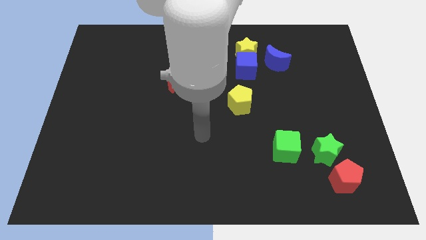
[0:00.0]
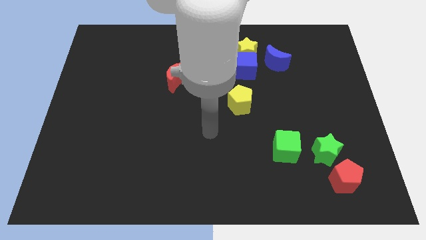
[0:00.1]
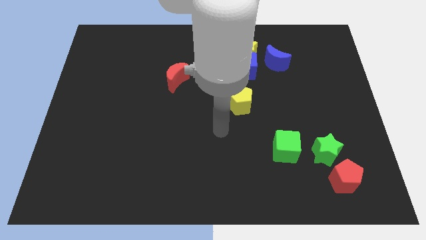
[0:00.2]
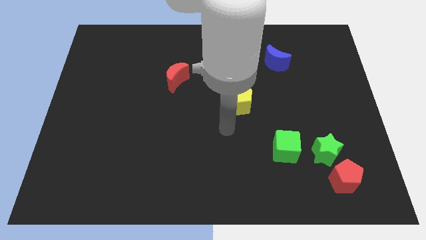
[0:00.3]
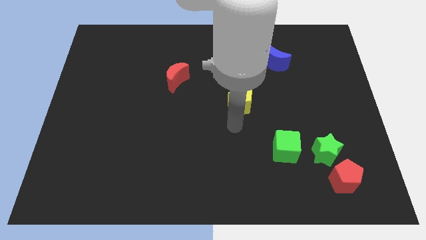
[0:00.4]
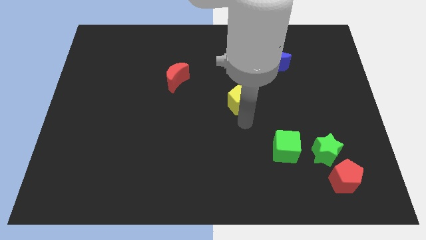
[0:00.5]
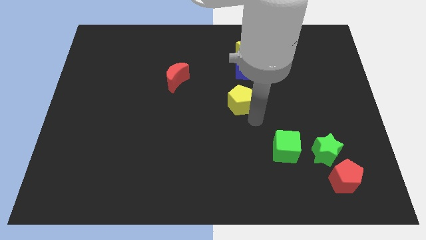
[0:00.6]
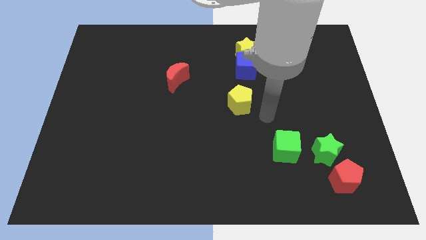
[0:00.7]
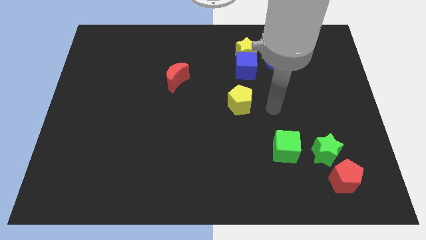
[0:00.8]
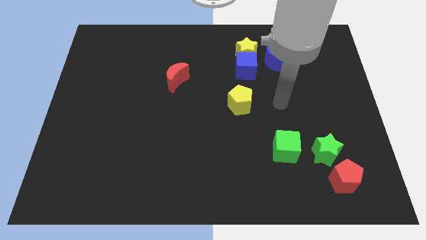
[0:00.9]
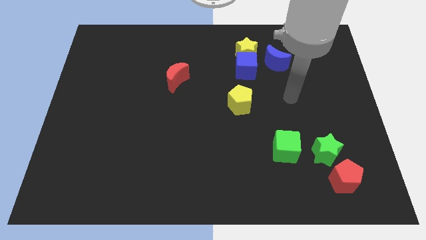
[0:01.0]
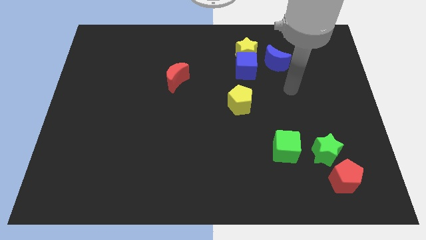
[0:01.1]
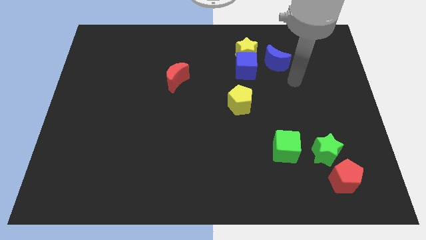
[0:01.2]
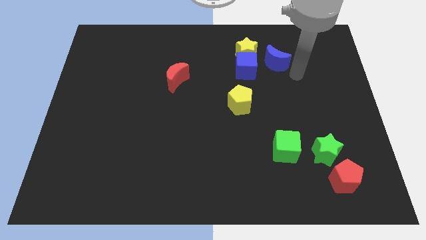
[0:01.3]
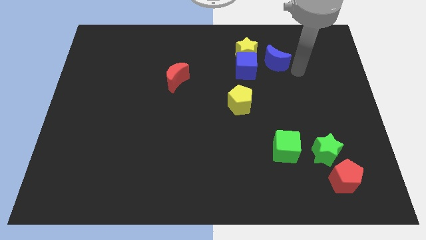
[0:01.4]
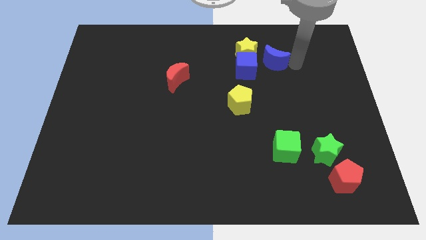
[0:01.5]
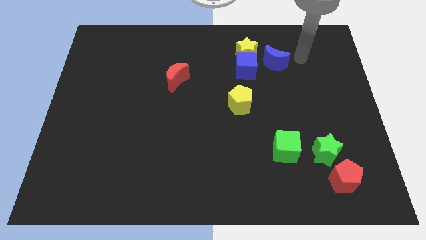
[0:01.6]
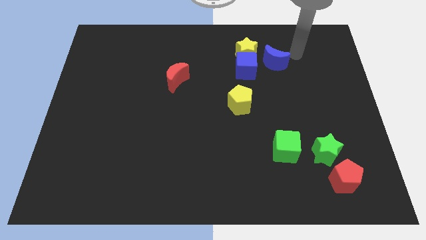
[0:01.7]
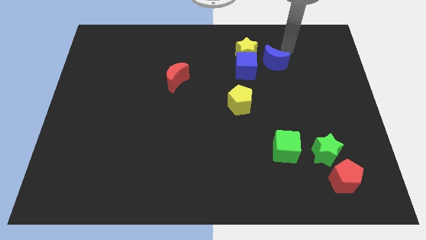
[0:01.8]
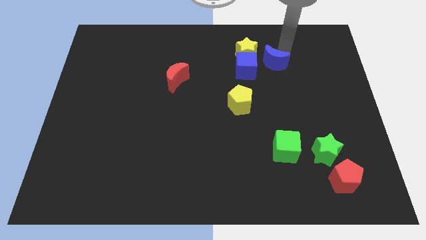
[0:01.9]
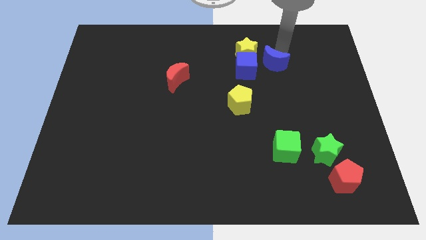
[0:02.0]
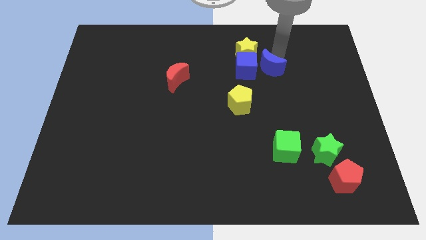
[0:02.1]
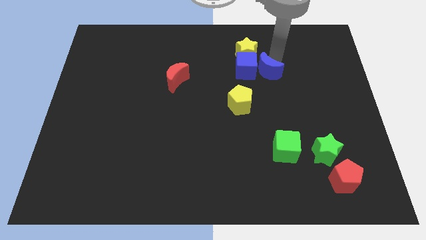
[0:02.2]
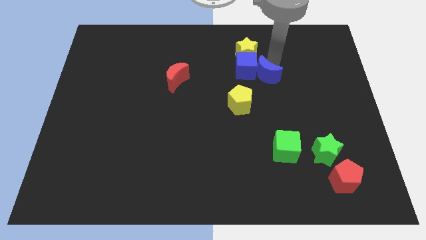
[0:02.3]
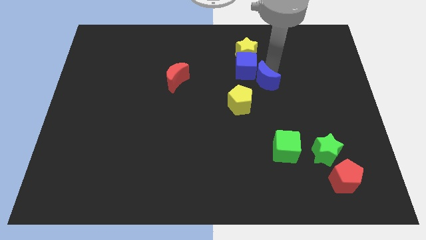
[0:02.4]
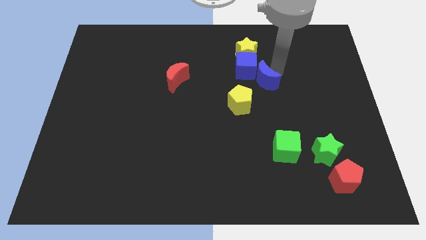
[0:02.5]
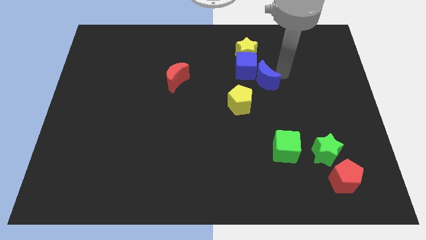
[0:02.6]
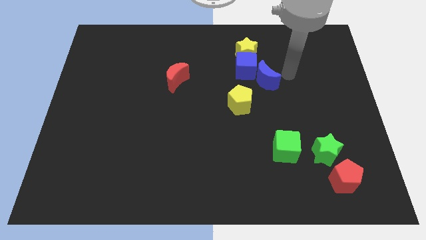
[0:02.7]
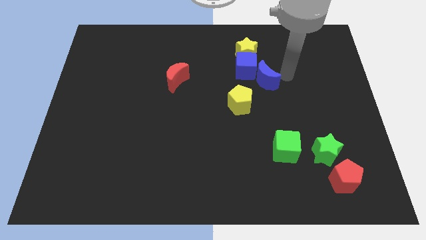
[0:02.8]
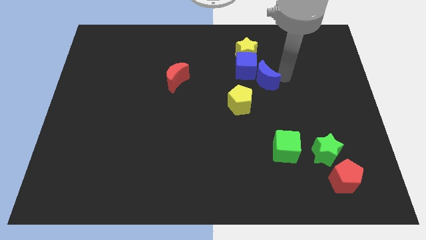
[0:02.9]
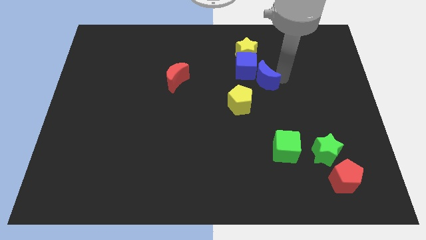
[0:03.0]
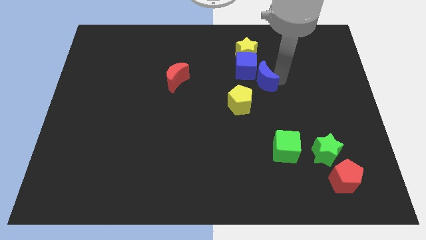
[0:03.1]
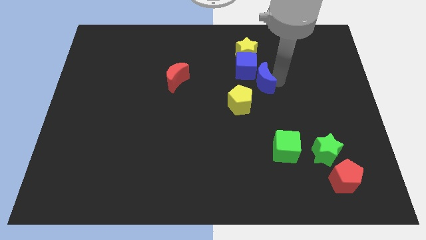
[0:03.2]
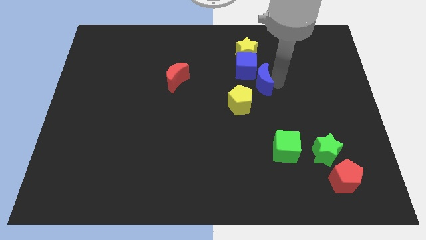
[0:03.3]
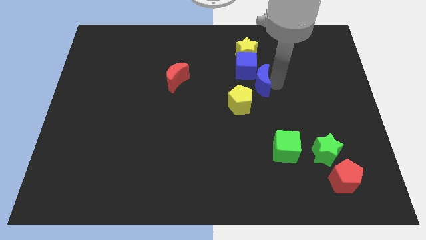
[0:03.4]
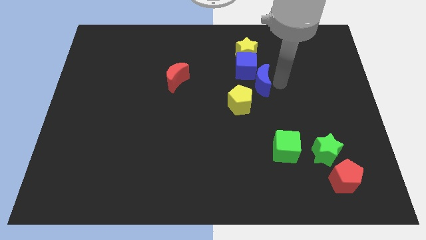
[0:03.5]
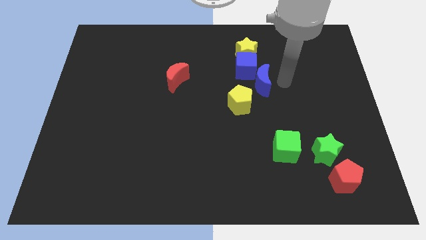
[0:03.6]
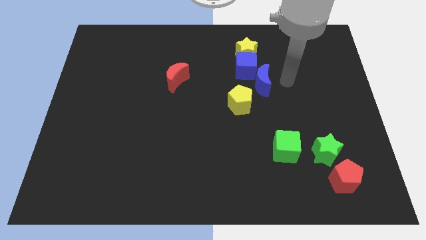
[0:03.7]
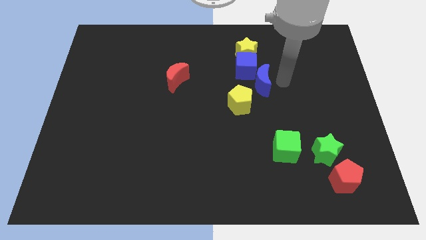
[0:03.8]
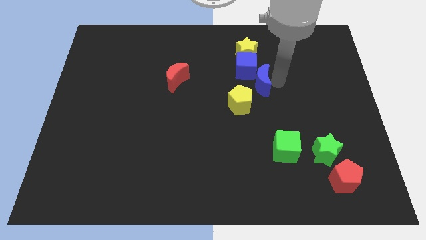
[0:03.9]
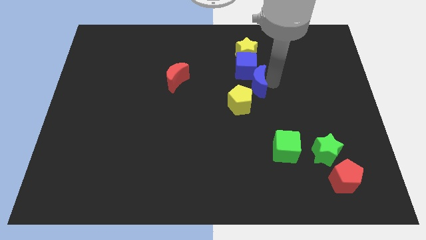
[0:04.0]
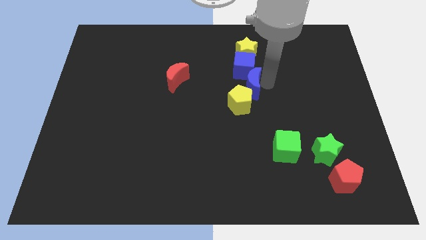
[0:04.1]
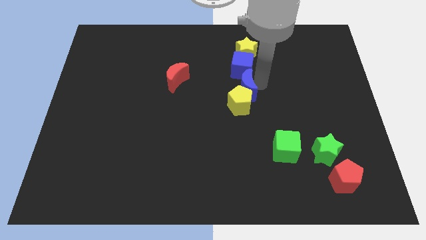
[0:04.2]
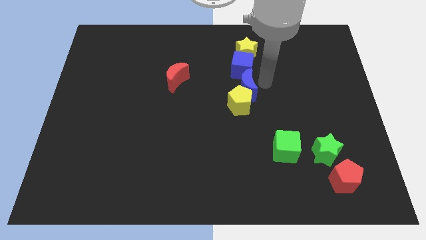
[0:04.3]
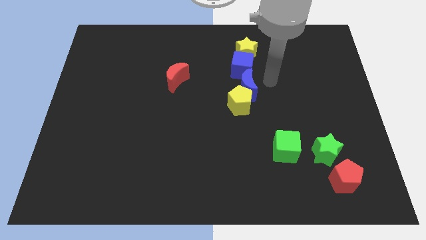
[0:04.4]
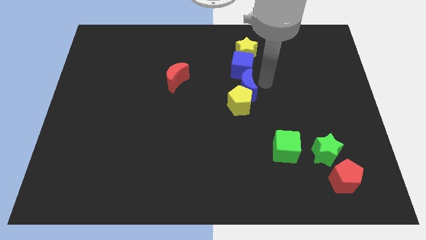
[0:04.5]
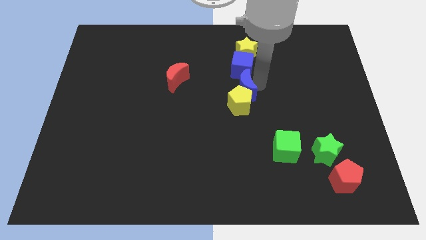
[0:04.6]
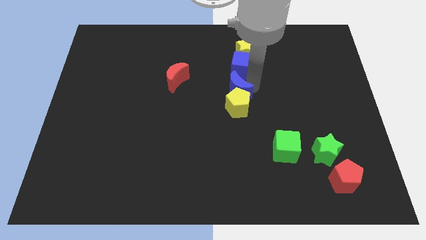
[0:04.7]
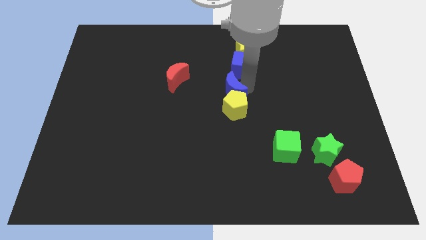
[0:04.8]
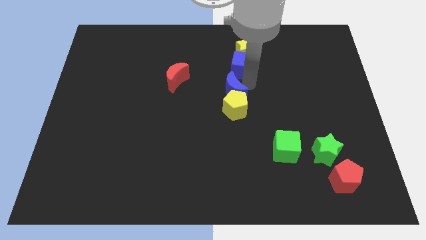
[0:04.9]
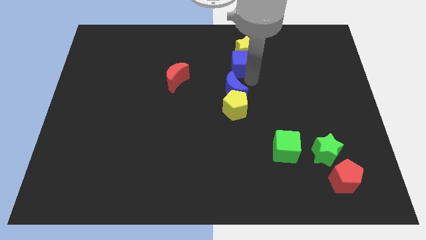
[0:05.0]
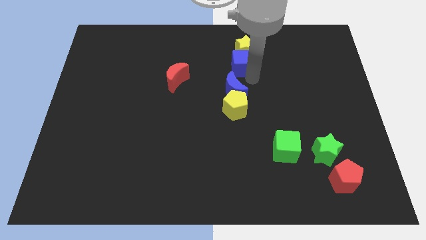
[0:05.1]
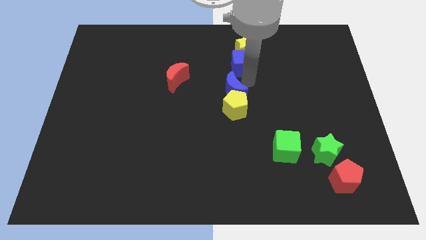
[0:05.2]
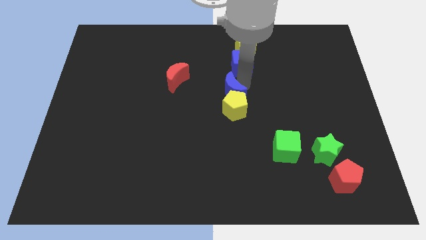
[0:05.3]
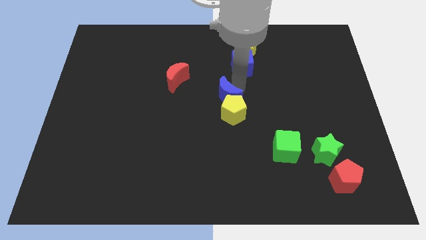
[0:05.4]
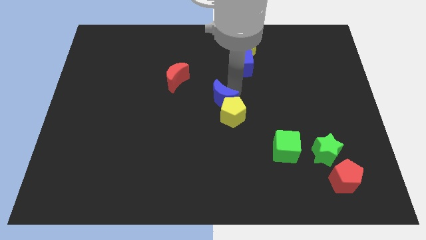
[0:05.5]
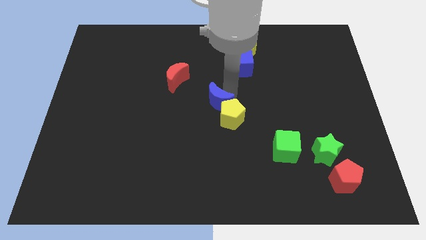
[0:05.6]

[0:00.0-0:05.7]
slide the blue moon downwards and to the left

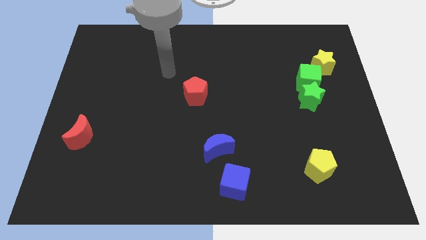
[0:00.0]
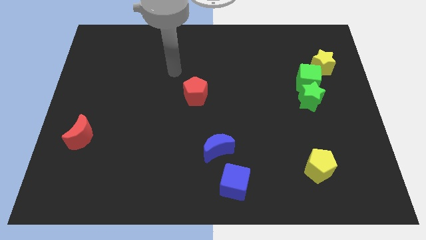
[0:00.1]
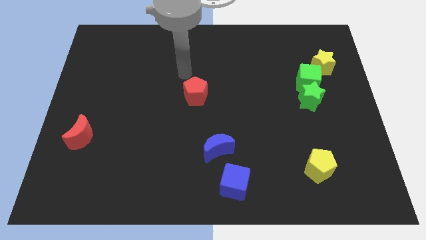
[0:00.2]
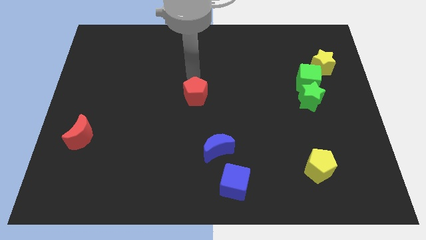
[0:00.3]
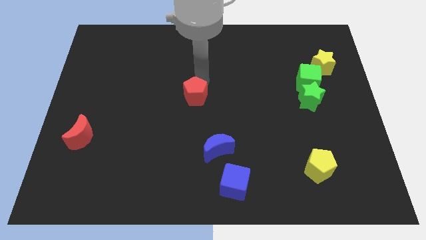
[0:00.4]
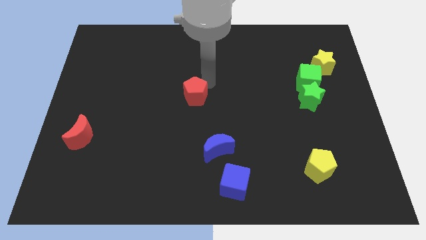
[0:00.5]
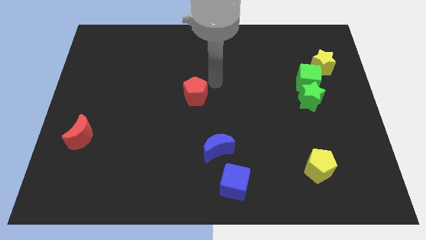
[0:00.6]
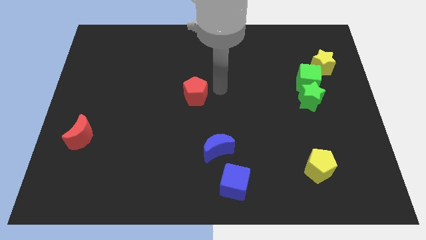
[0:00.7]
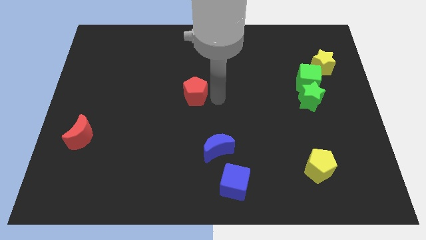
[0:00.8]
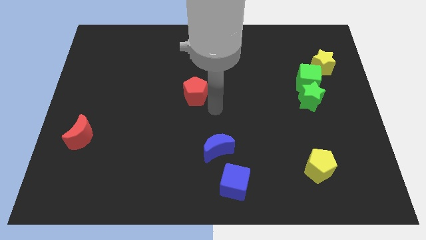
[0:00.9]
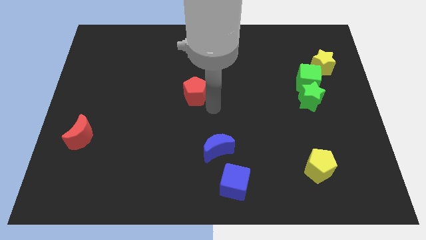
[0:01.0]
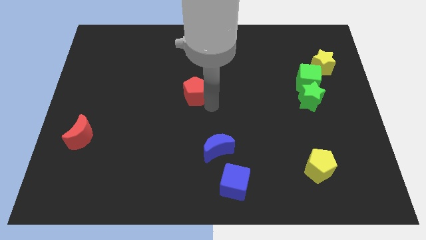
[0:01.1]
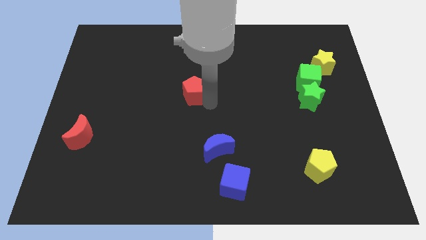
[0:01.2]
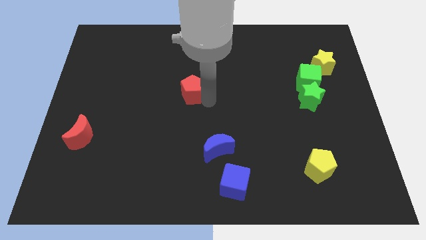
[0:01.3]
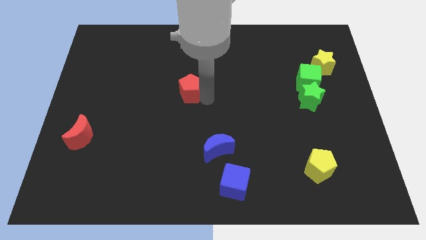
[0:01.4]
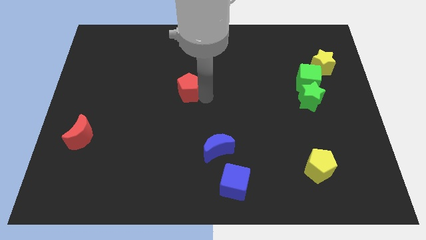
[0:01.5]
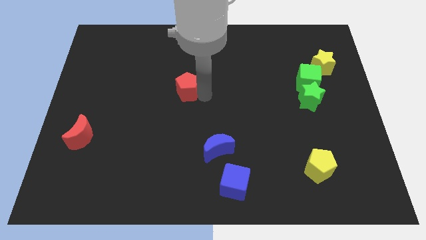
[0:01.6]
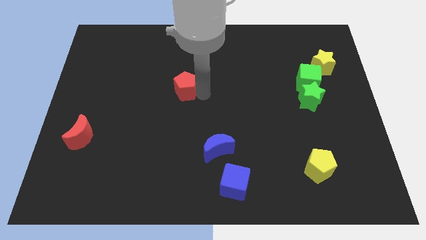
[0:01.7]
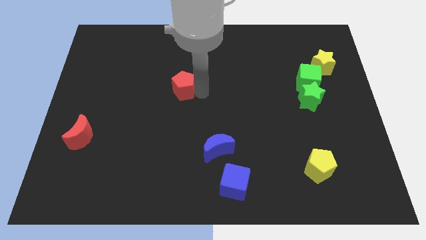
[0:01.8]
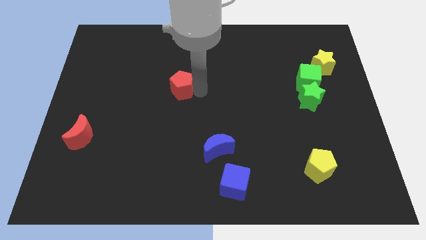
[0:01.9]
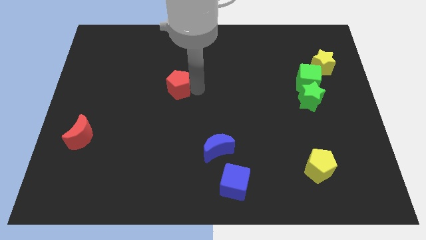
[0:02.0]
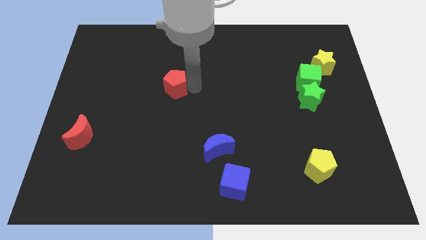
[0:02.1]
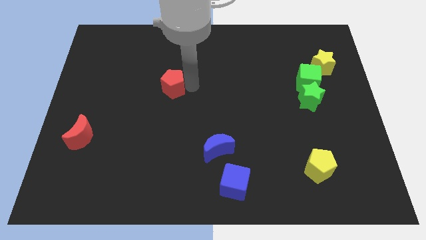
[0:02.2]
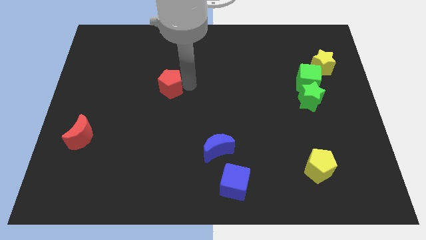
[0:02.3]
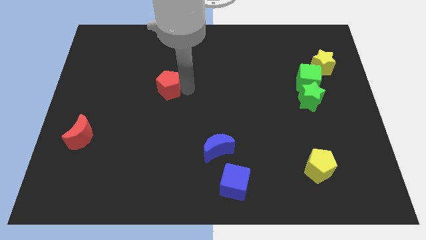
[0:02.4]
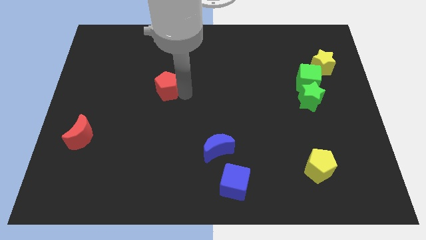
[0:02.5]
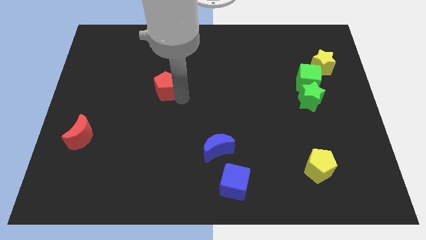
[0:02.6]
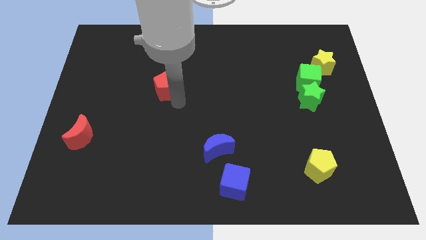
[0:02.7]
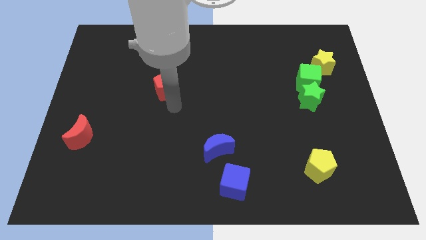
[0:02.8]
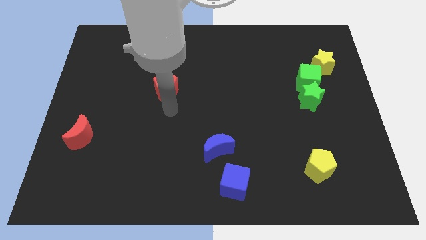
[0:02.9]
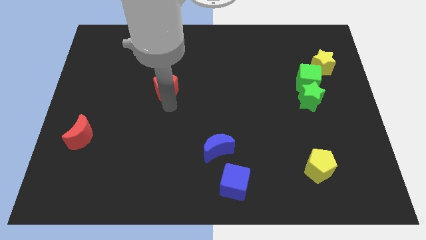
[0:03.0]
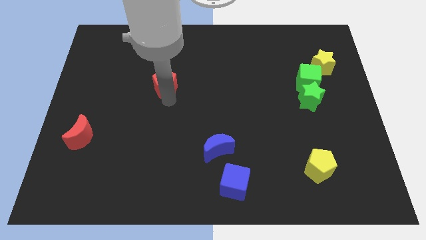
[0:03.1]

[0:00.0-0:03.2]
slightly push the red pentagon upwards and to the left
